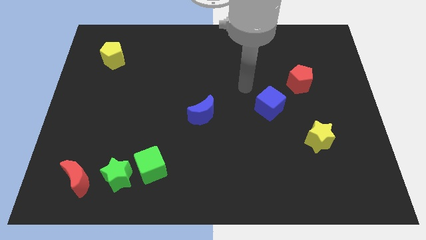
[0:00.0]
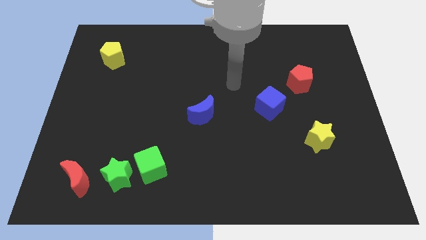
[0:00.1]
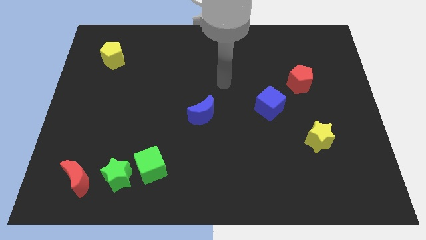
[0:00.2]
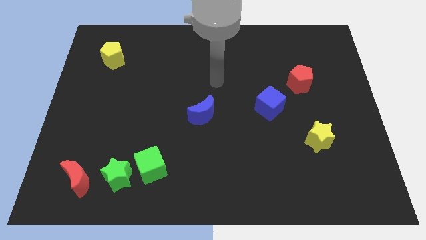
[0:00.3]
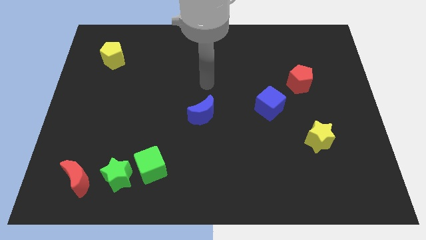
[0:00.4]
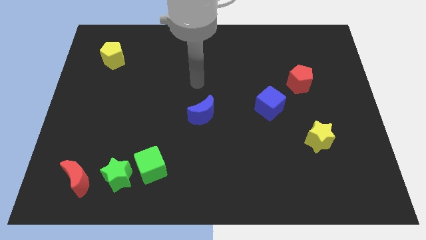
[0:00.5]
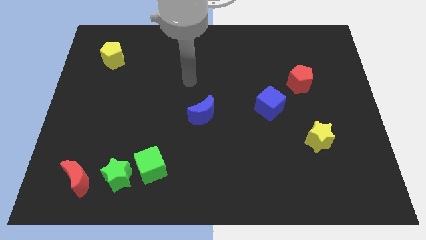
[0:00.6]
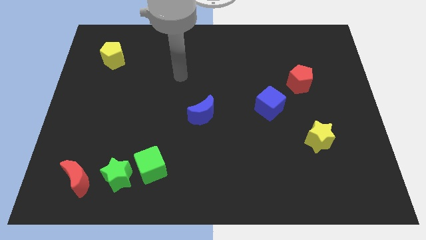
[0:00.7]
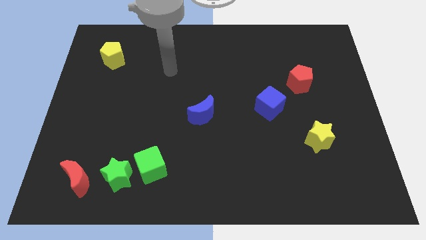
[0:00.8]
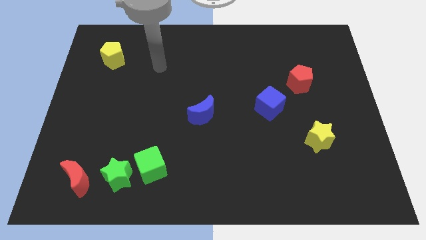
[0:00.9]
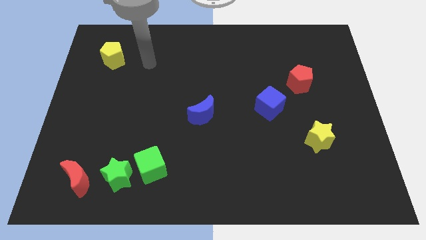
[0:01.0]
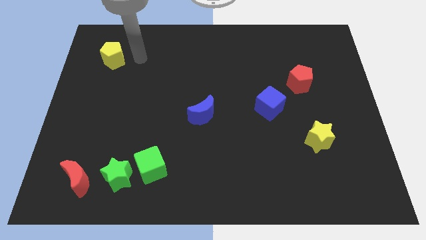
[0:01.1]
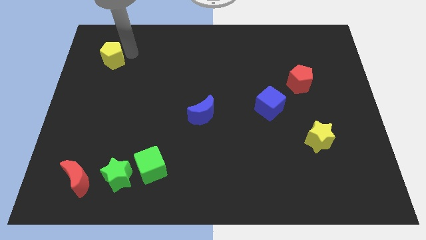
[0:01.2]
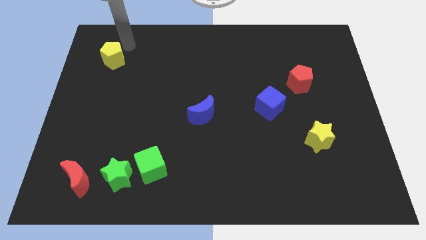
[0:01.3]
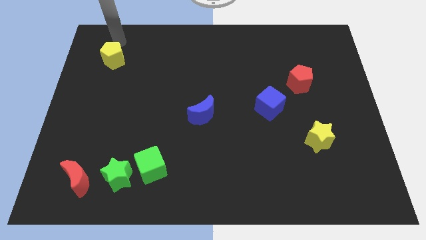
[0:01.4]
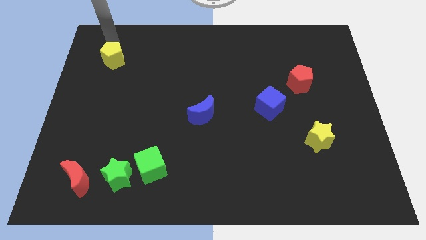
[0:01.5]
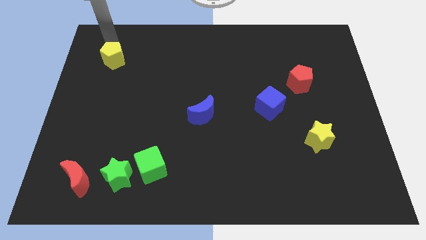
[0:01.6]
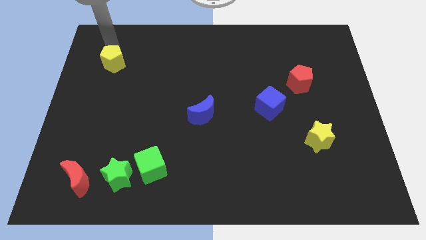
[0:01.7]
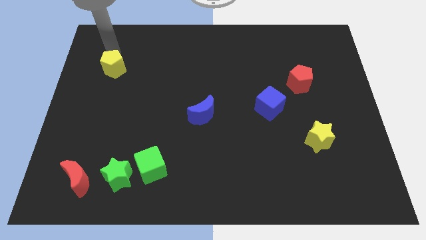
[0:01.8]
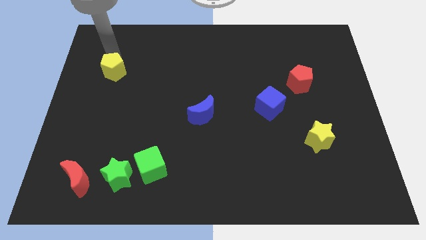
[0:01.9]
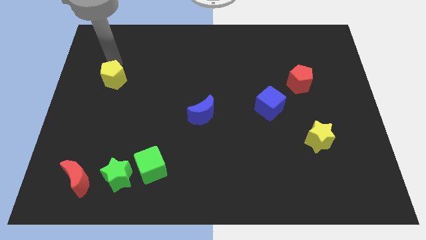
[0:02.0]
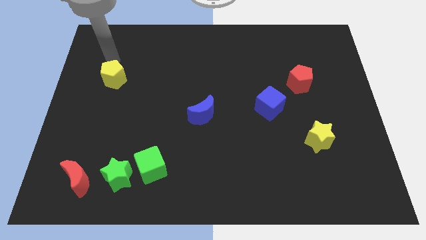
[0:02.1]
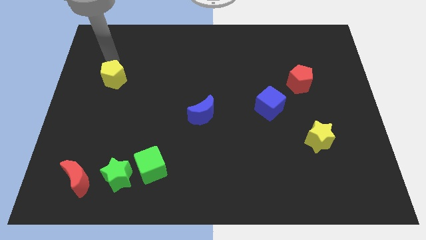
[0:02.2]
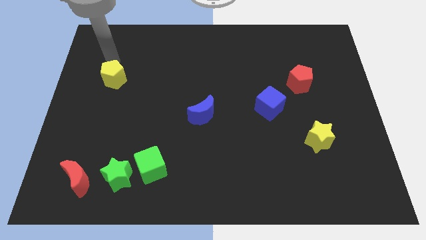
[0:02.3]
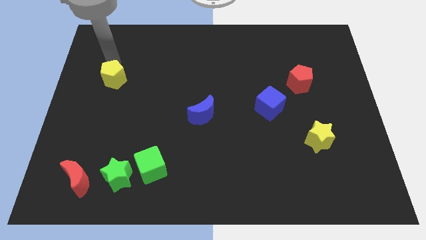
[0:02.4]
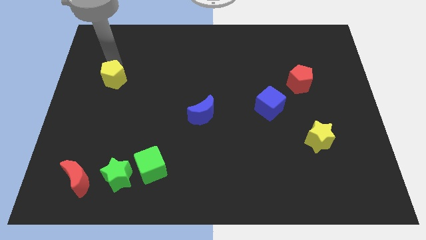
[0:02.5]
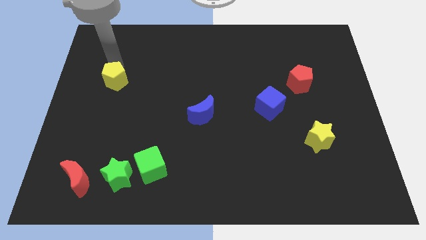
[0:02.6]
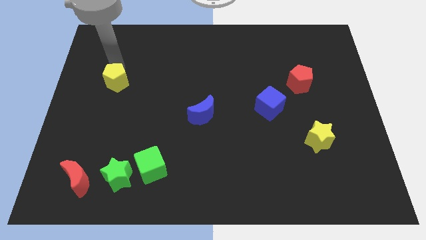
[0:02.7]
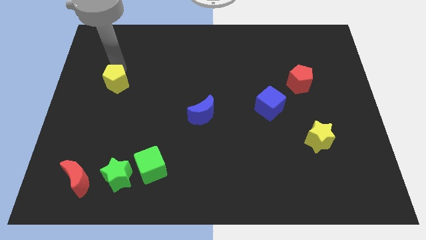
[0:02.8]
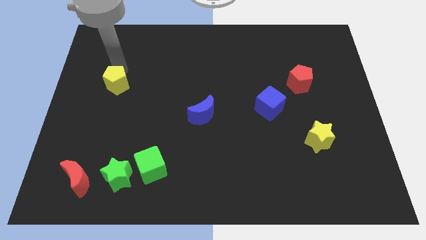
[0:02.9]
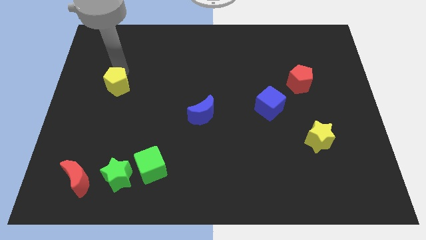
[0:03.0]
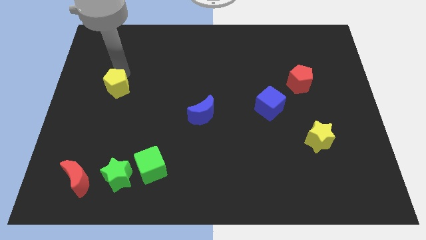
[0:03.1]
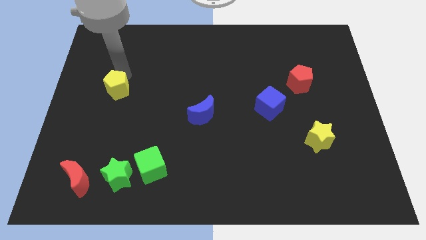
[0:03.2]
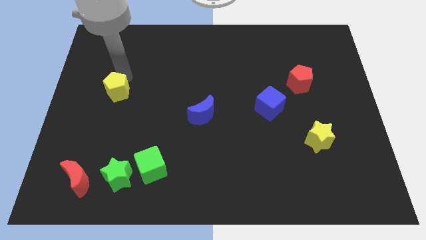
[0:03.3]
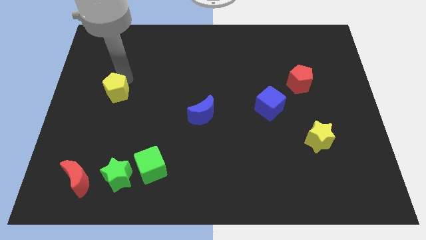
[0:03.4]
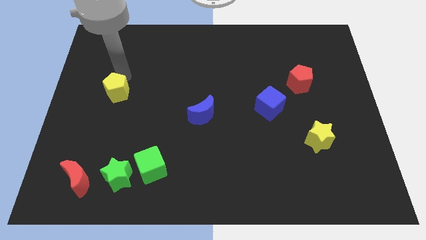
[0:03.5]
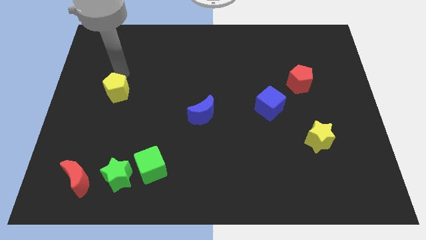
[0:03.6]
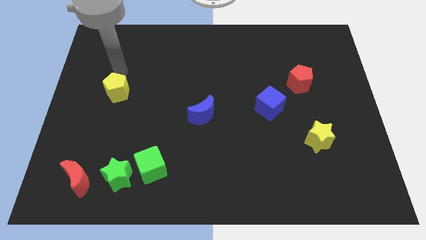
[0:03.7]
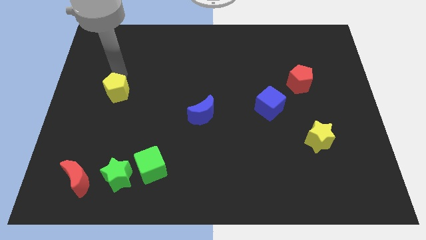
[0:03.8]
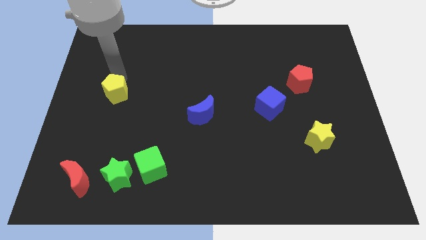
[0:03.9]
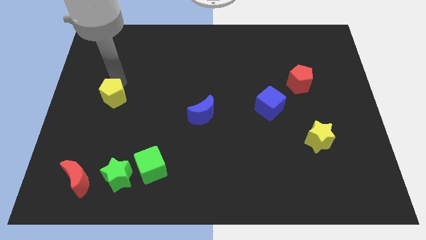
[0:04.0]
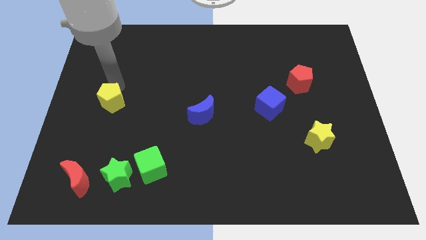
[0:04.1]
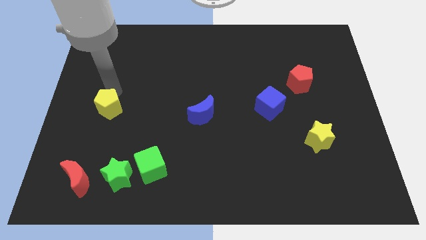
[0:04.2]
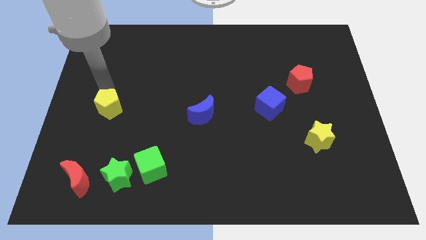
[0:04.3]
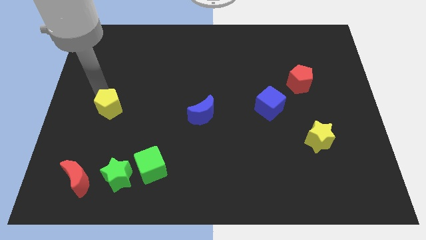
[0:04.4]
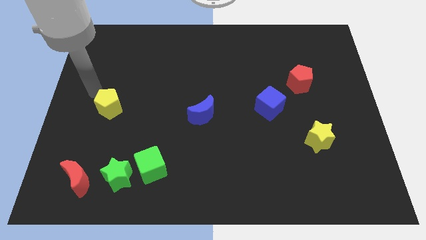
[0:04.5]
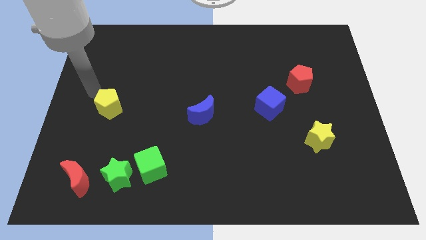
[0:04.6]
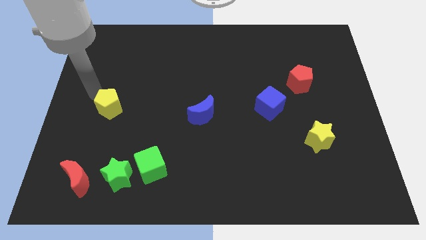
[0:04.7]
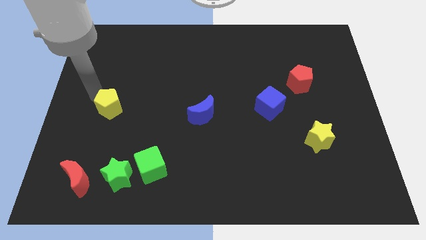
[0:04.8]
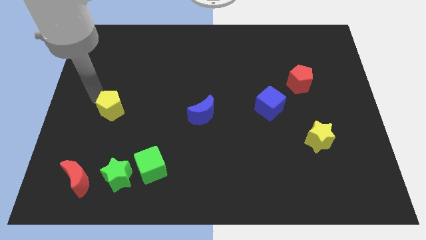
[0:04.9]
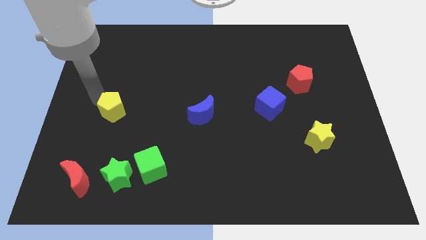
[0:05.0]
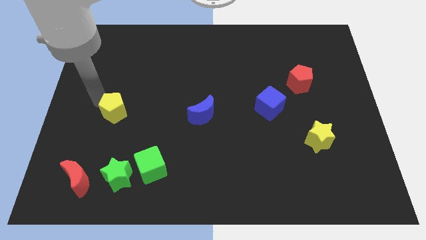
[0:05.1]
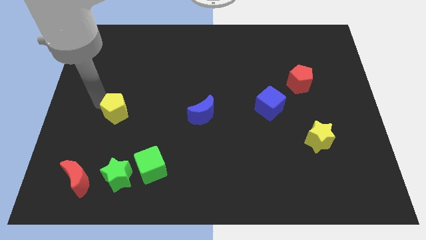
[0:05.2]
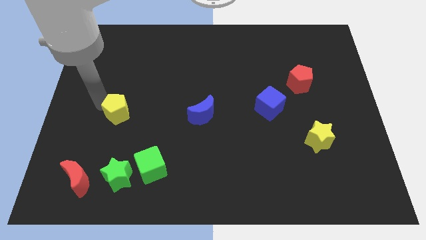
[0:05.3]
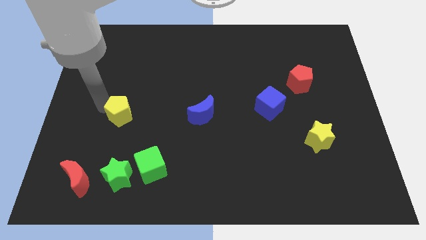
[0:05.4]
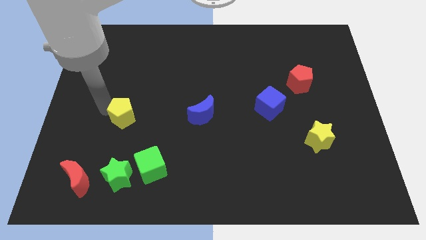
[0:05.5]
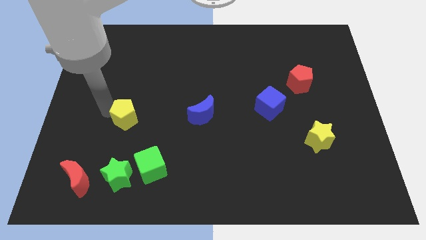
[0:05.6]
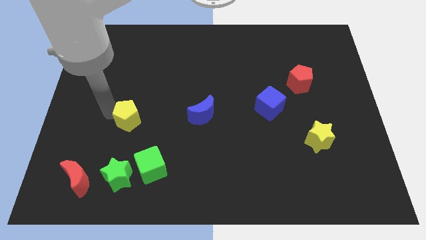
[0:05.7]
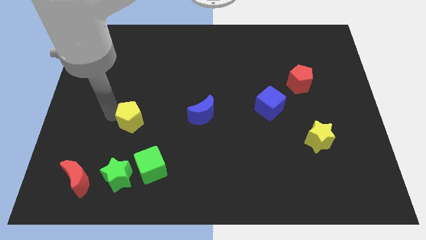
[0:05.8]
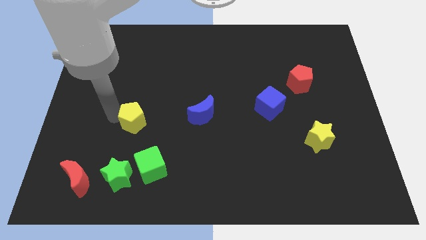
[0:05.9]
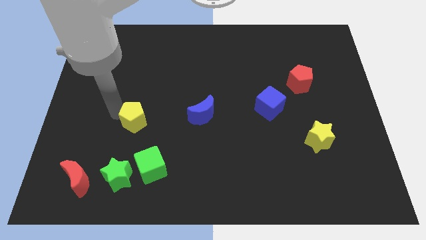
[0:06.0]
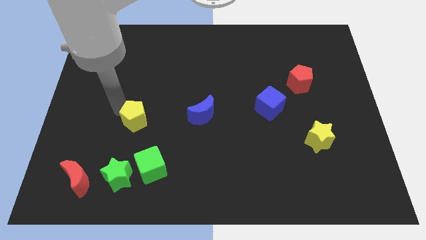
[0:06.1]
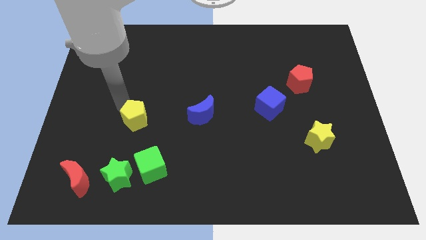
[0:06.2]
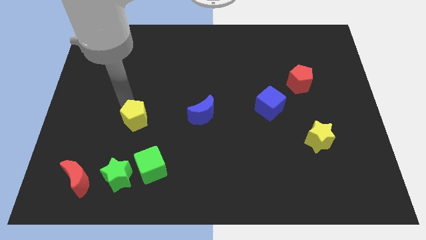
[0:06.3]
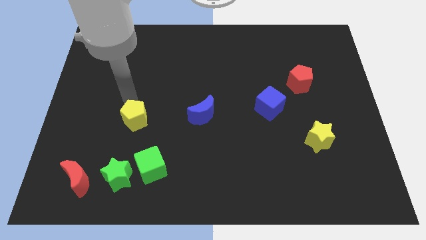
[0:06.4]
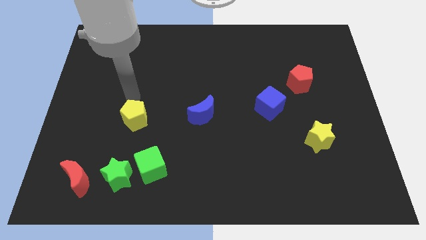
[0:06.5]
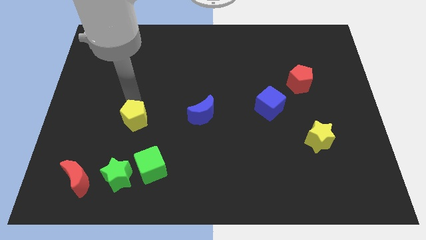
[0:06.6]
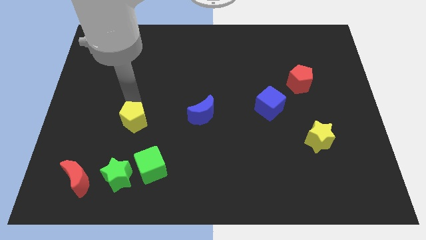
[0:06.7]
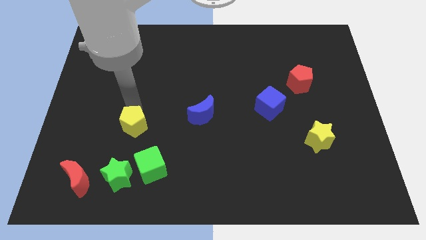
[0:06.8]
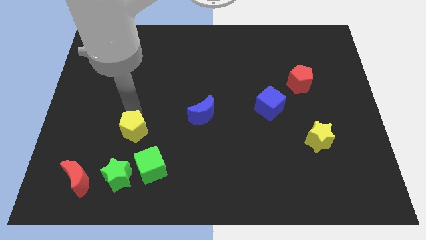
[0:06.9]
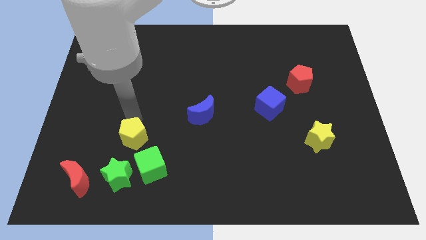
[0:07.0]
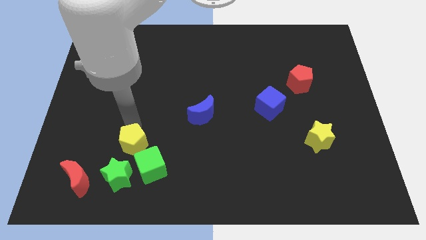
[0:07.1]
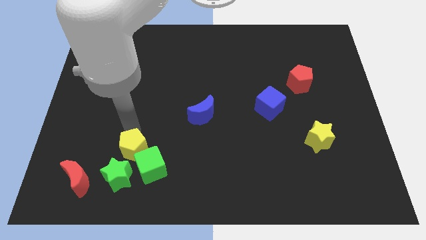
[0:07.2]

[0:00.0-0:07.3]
move the yellow pentagon close to the green cube
